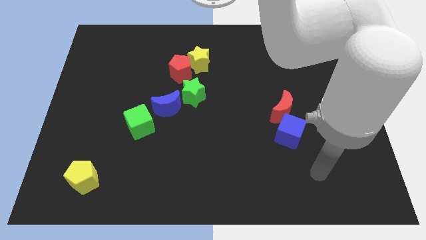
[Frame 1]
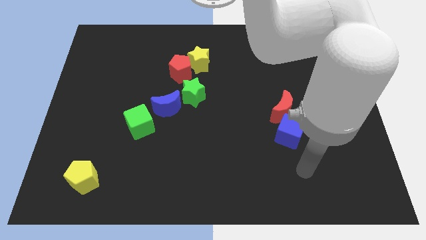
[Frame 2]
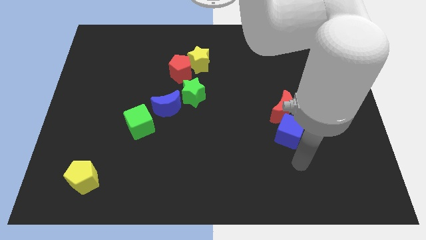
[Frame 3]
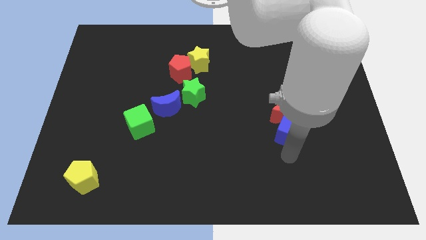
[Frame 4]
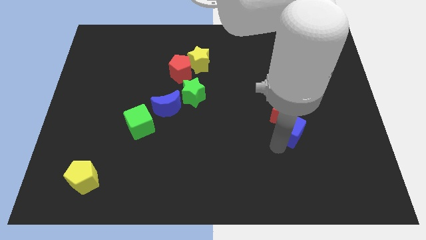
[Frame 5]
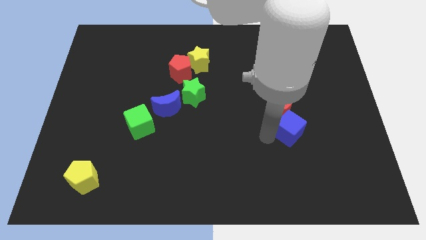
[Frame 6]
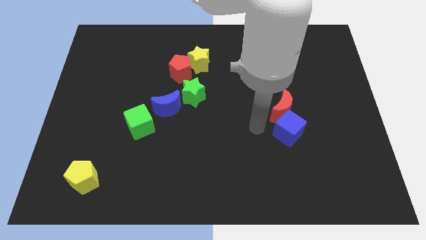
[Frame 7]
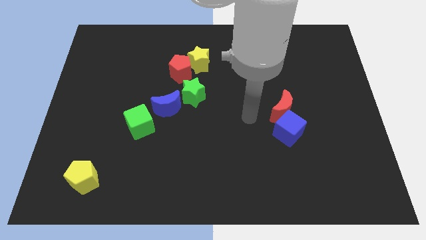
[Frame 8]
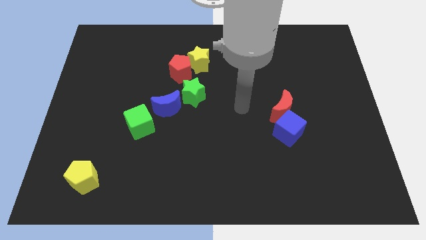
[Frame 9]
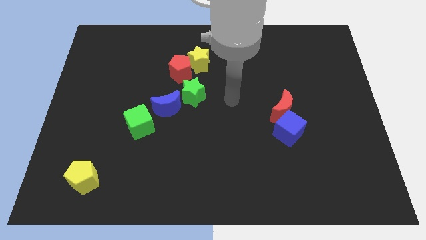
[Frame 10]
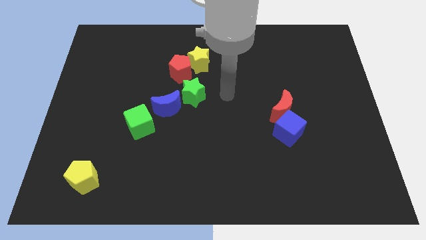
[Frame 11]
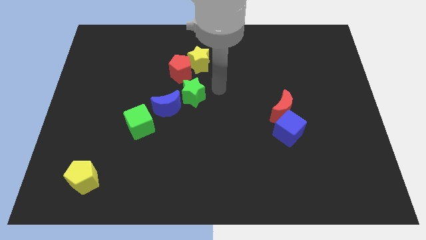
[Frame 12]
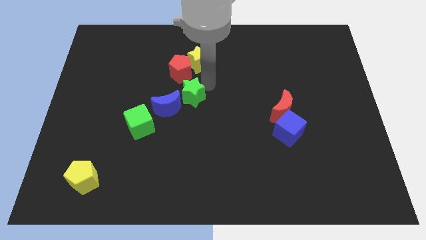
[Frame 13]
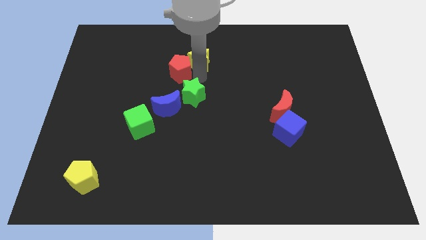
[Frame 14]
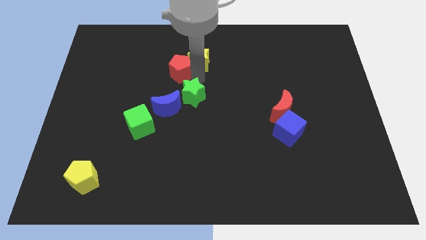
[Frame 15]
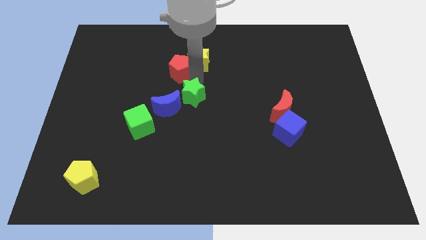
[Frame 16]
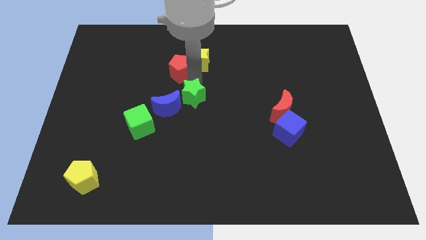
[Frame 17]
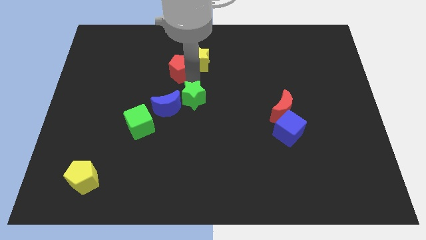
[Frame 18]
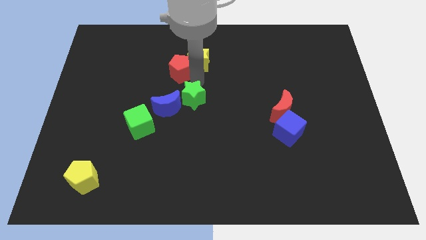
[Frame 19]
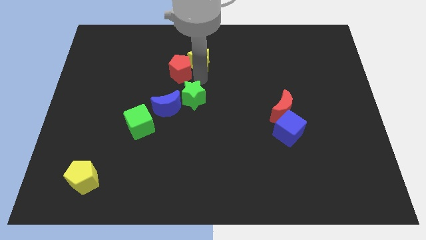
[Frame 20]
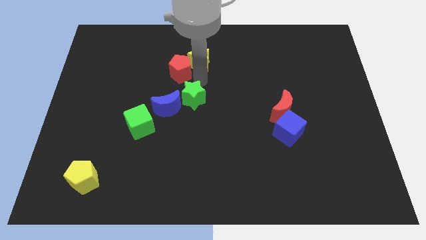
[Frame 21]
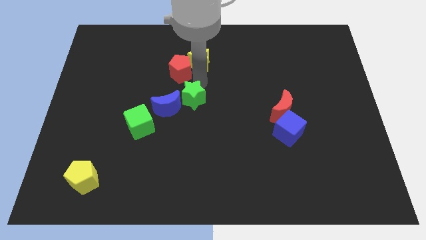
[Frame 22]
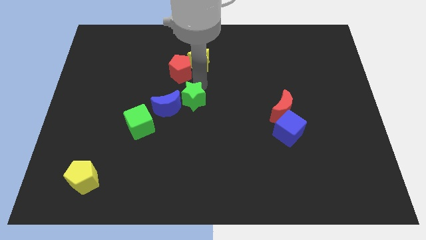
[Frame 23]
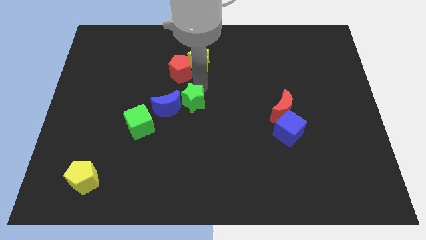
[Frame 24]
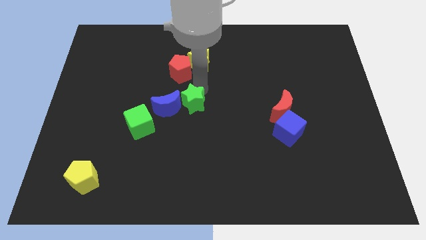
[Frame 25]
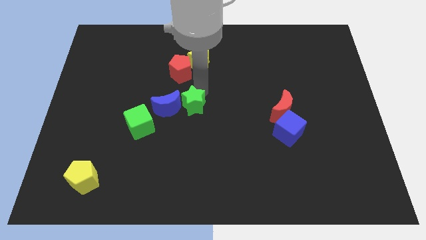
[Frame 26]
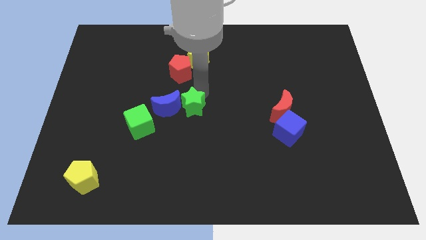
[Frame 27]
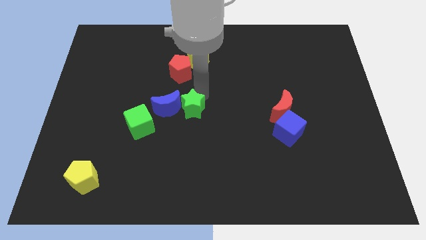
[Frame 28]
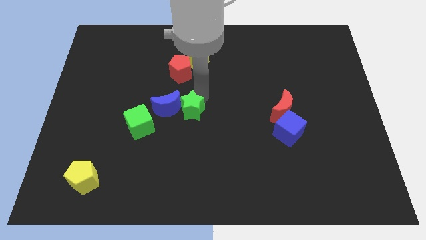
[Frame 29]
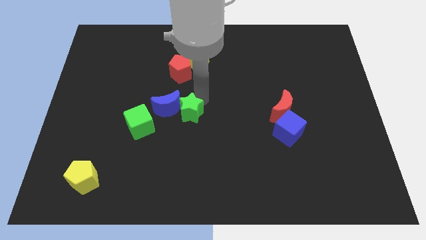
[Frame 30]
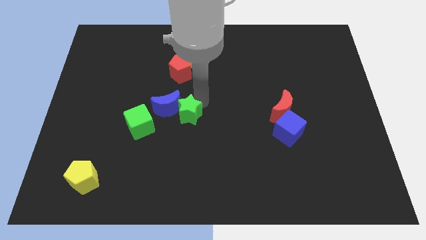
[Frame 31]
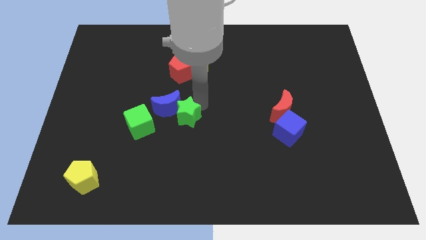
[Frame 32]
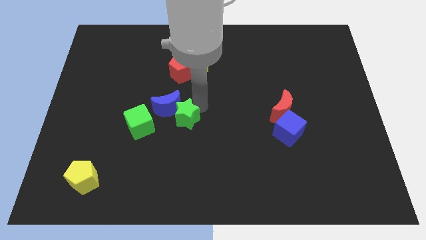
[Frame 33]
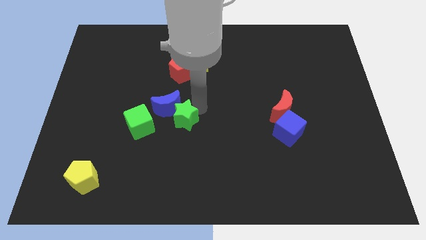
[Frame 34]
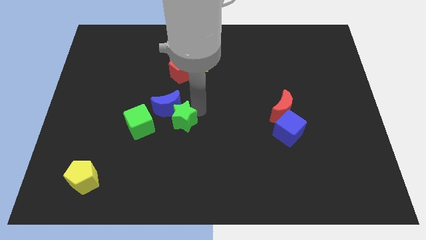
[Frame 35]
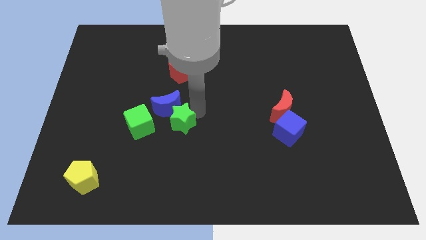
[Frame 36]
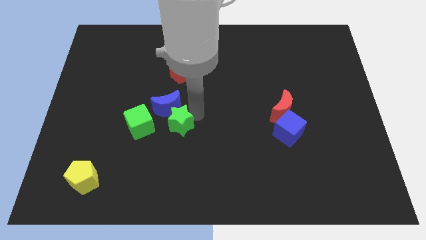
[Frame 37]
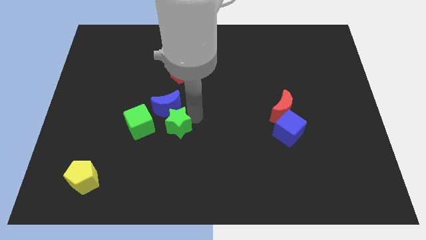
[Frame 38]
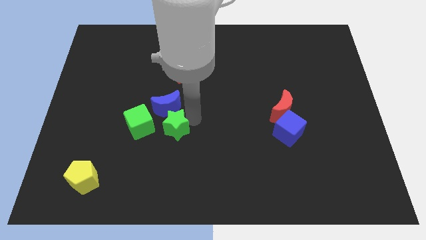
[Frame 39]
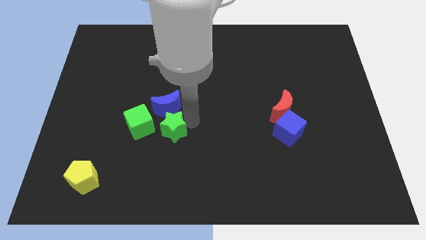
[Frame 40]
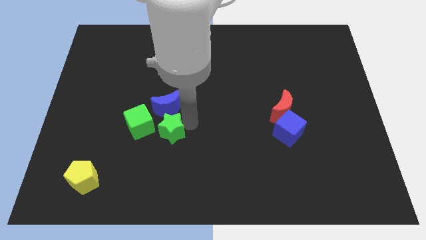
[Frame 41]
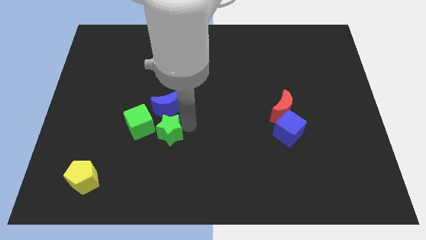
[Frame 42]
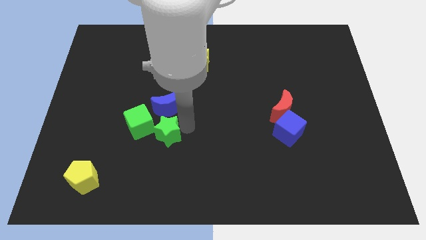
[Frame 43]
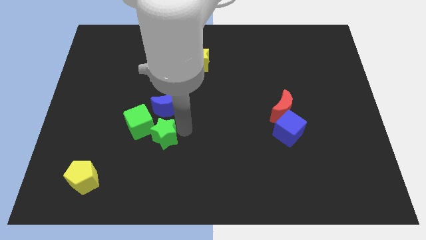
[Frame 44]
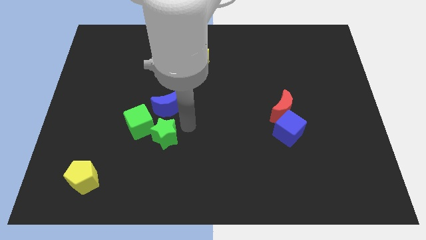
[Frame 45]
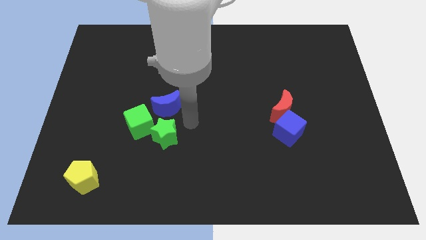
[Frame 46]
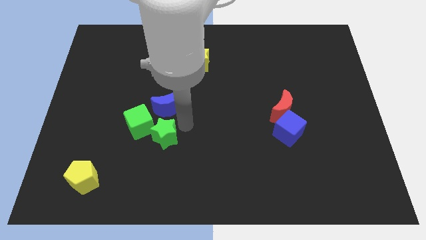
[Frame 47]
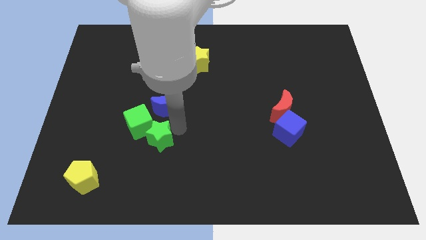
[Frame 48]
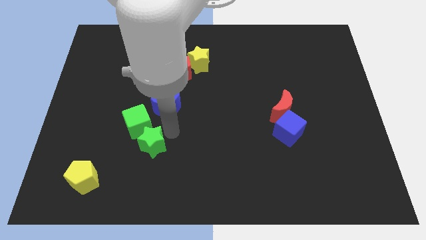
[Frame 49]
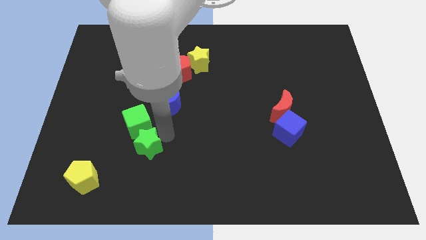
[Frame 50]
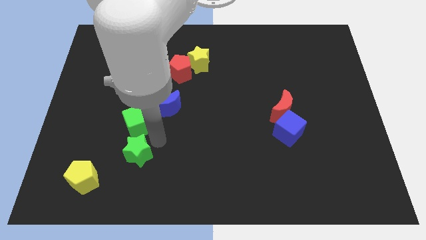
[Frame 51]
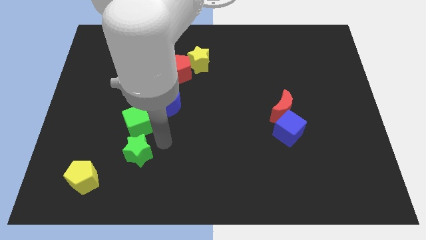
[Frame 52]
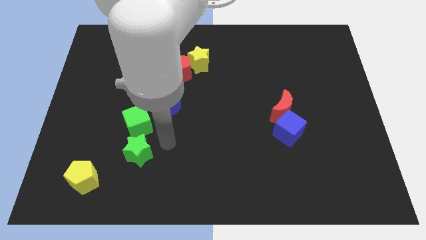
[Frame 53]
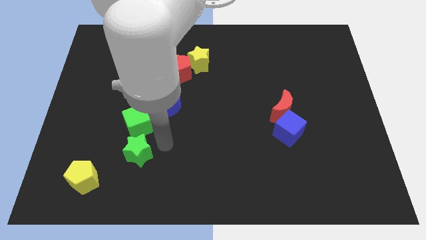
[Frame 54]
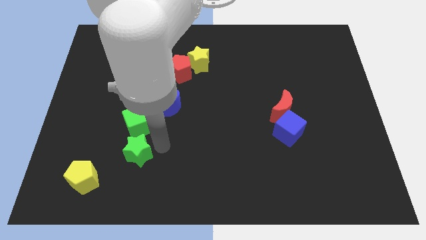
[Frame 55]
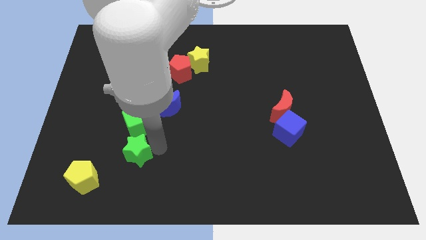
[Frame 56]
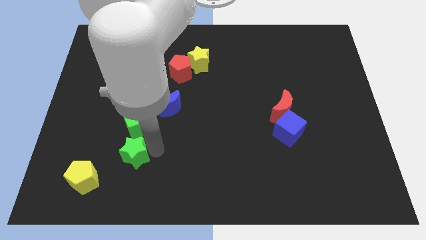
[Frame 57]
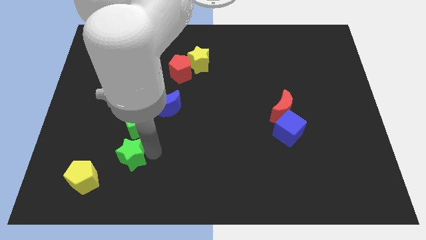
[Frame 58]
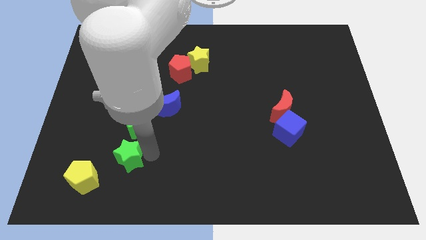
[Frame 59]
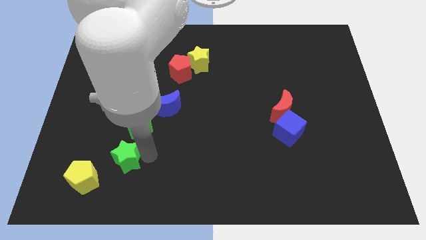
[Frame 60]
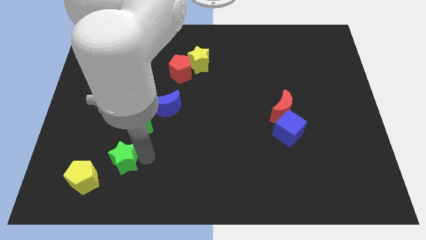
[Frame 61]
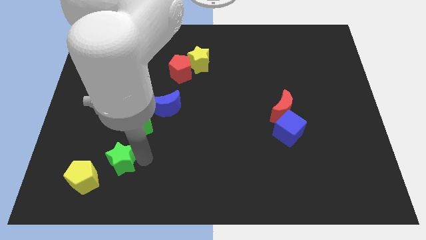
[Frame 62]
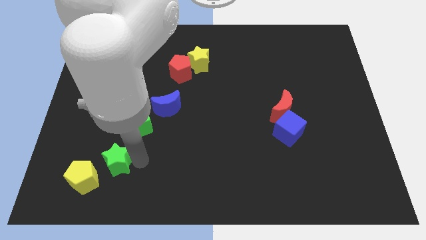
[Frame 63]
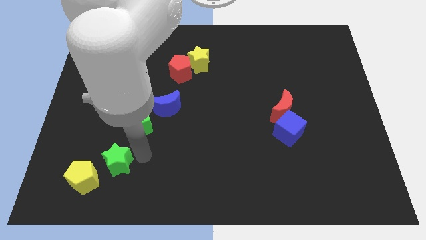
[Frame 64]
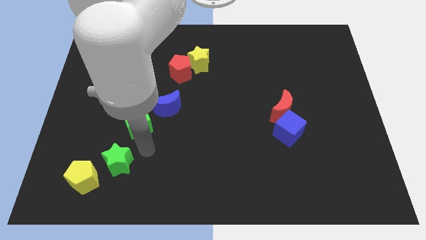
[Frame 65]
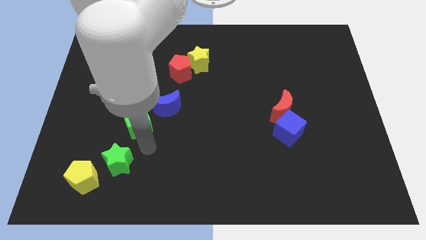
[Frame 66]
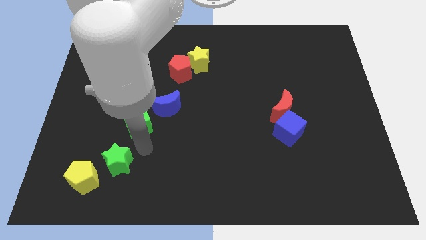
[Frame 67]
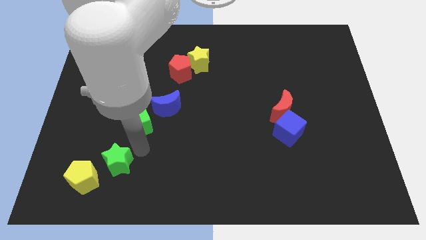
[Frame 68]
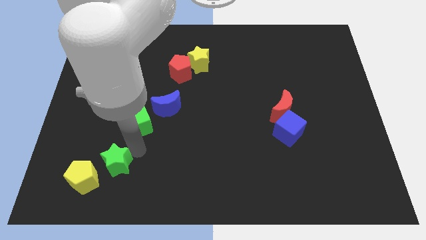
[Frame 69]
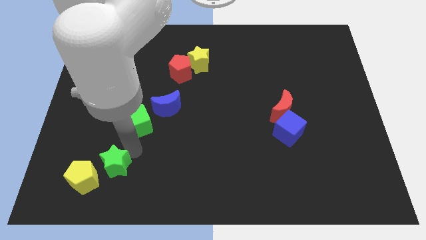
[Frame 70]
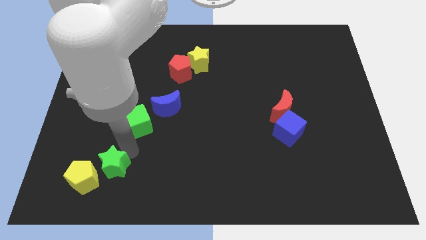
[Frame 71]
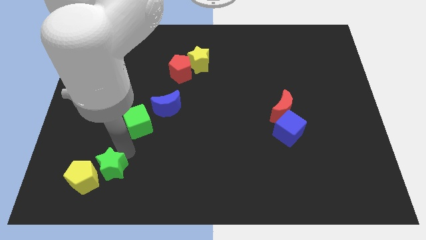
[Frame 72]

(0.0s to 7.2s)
put the green star next to the yellow pentagon
